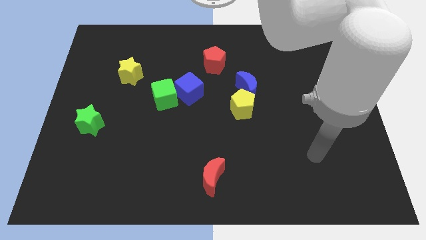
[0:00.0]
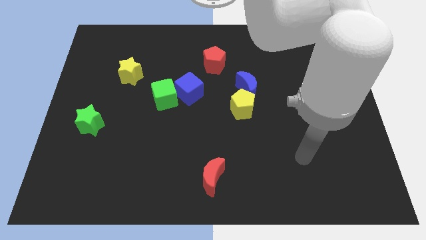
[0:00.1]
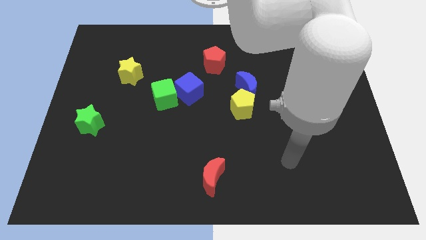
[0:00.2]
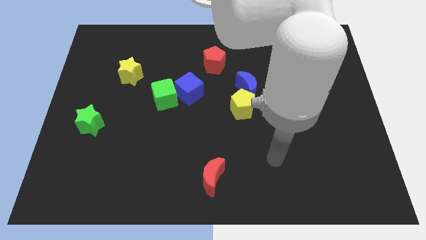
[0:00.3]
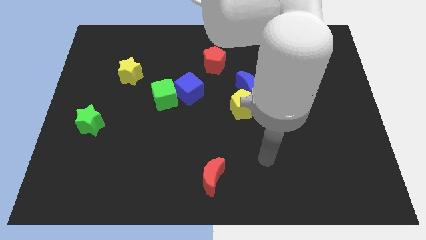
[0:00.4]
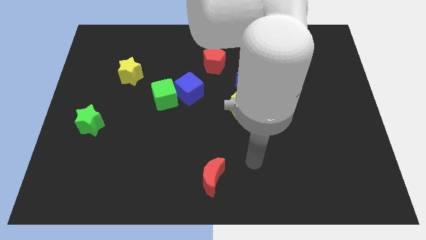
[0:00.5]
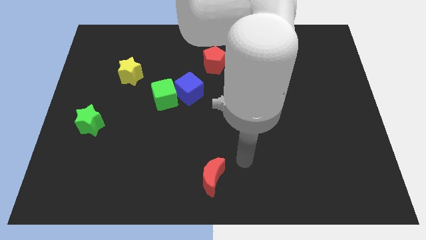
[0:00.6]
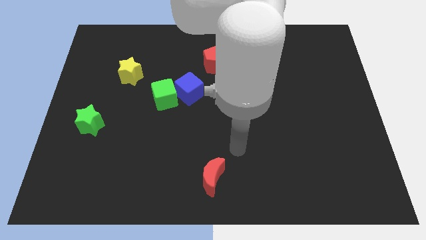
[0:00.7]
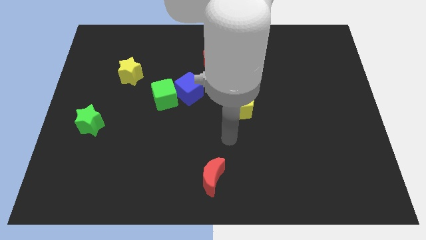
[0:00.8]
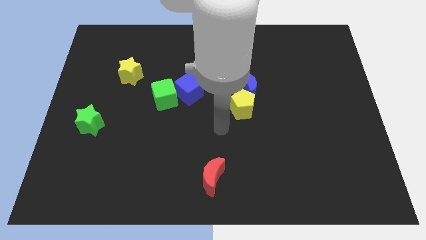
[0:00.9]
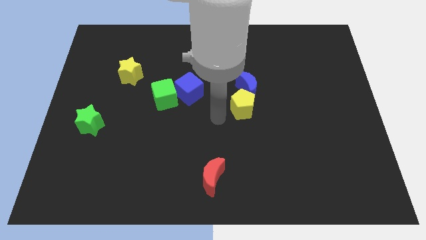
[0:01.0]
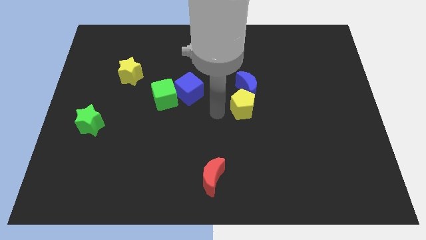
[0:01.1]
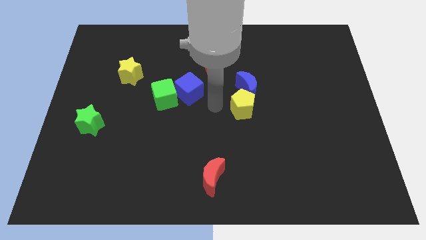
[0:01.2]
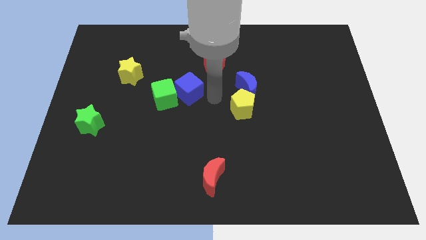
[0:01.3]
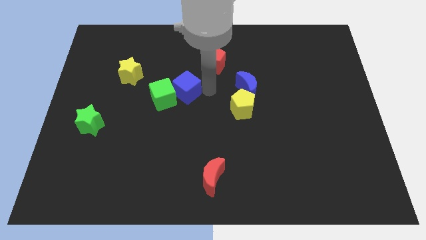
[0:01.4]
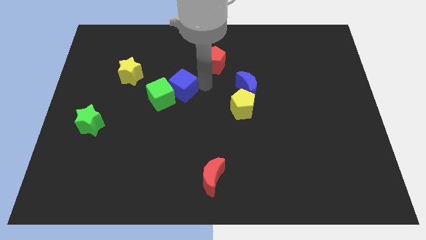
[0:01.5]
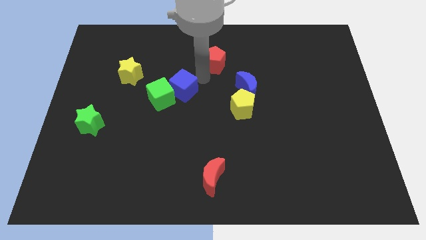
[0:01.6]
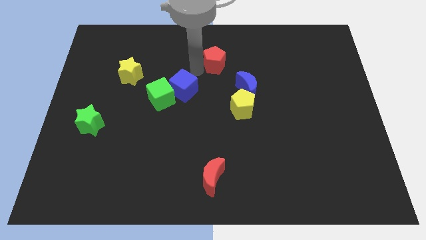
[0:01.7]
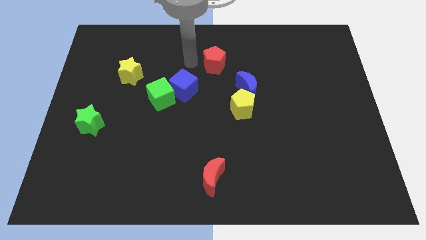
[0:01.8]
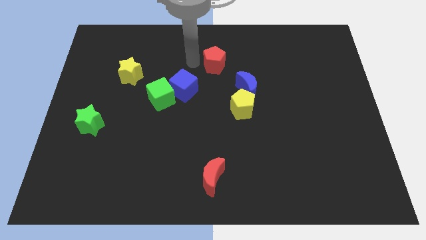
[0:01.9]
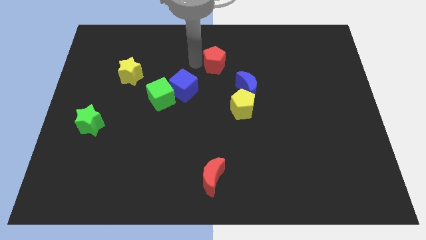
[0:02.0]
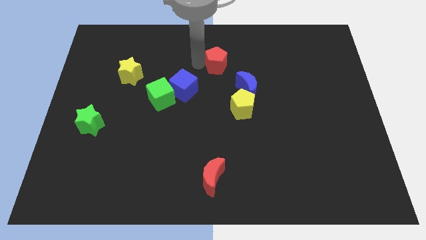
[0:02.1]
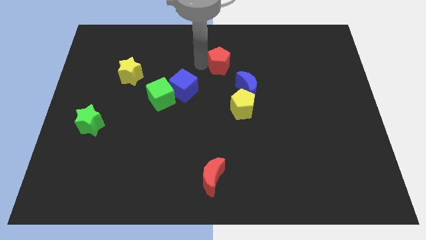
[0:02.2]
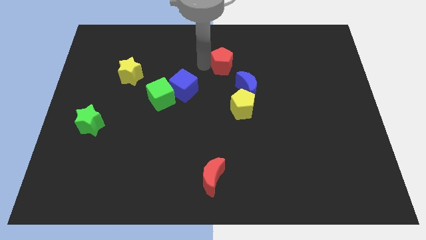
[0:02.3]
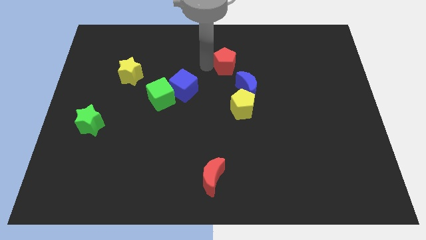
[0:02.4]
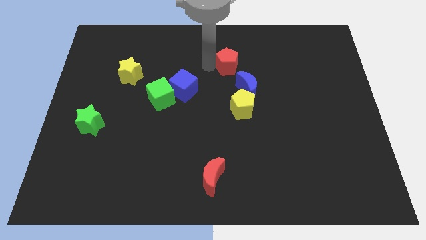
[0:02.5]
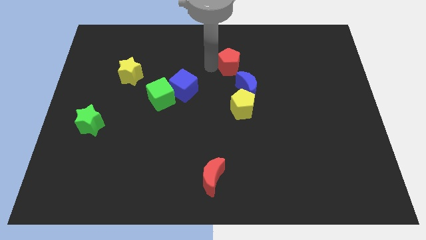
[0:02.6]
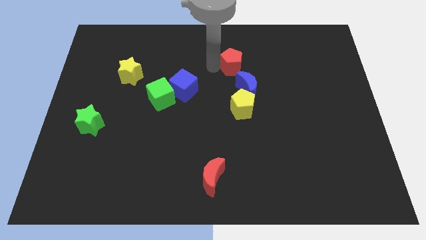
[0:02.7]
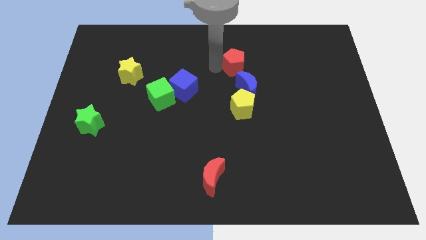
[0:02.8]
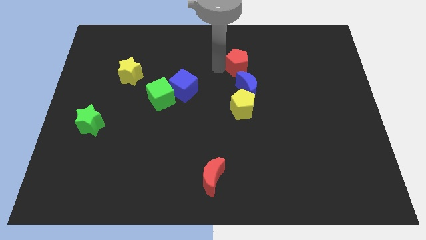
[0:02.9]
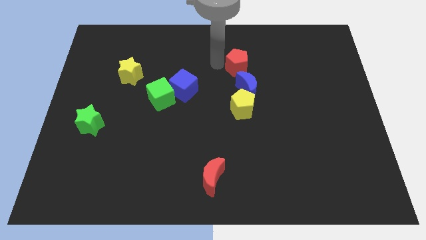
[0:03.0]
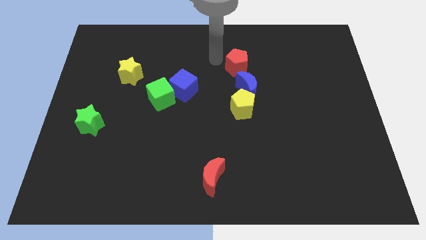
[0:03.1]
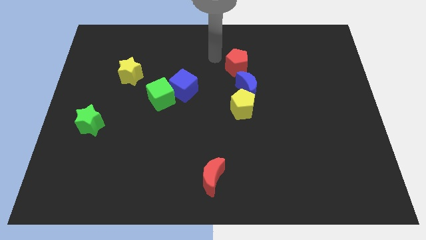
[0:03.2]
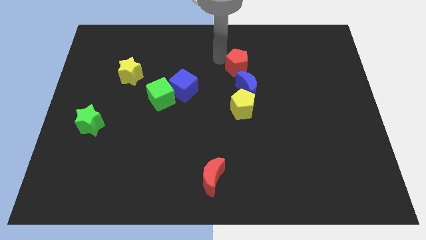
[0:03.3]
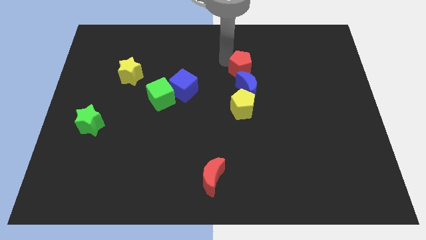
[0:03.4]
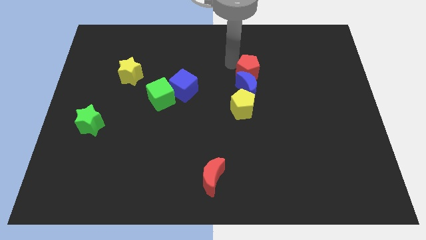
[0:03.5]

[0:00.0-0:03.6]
push the red pentagon slightly down and to the right

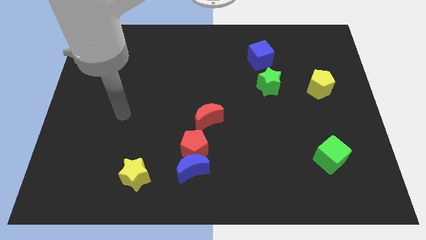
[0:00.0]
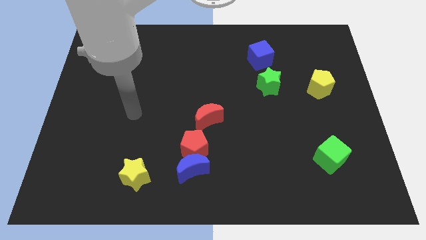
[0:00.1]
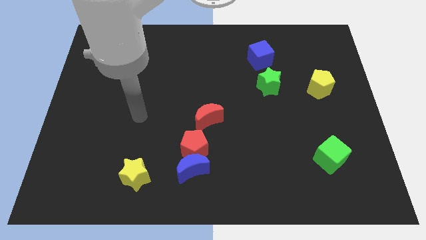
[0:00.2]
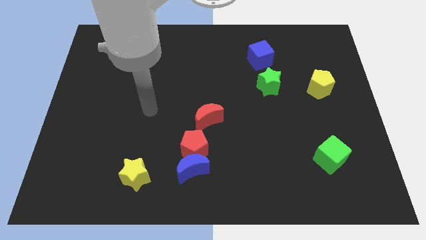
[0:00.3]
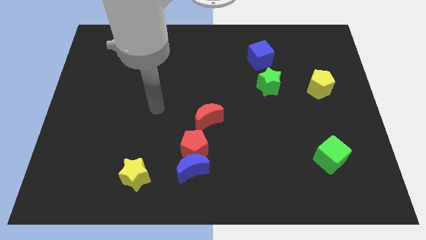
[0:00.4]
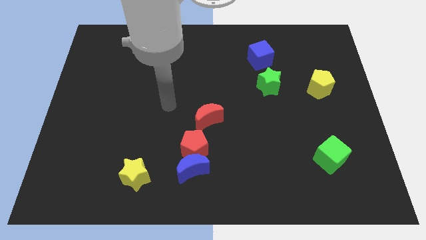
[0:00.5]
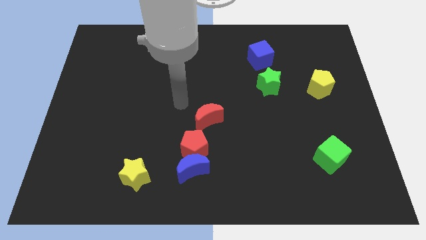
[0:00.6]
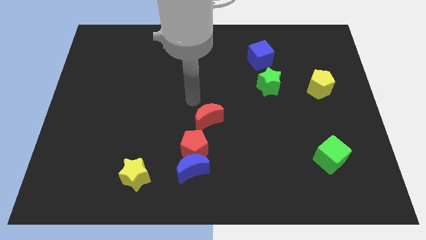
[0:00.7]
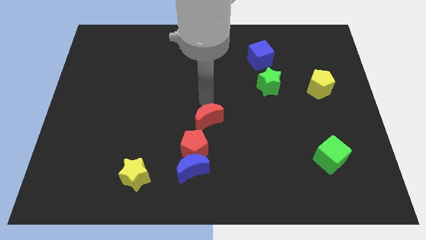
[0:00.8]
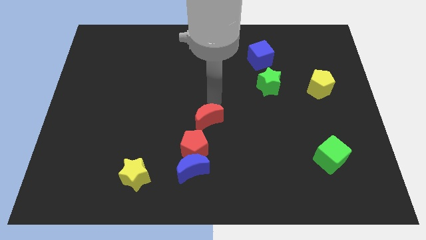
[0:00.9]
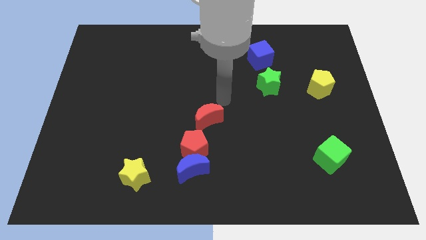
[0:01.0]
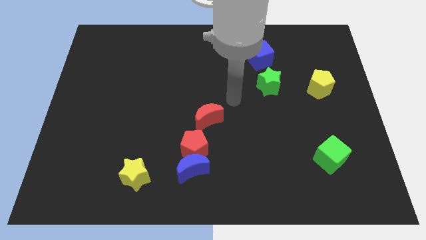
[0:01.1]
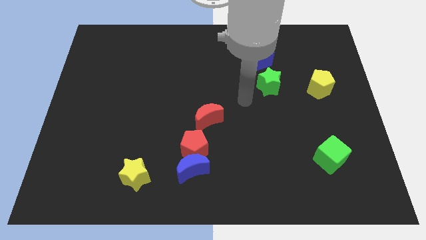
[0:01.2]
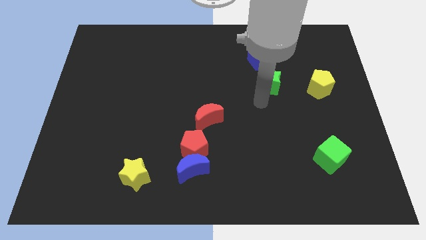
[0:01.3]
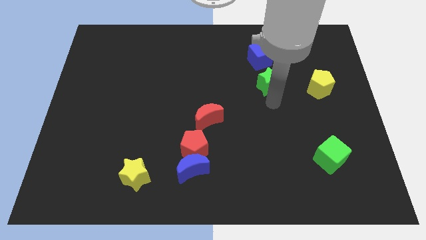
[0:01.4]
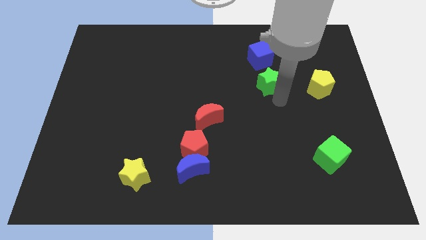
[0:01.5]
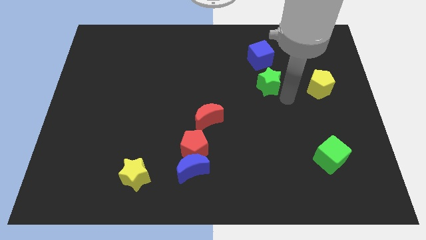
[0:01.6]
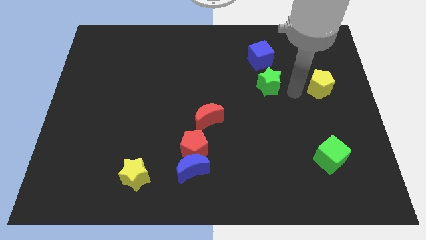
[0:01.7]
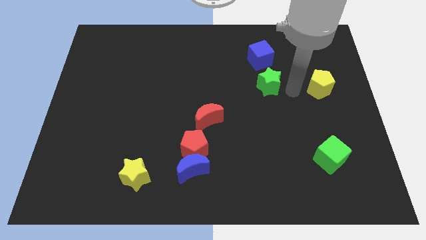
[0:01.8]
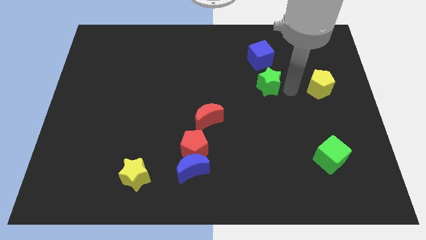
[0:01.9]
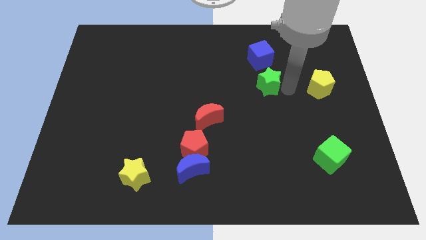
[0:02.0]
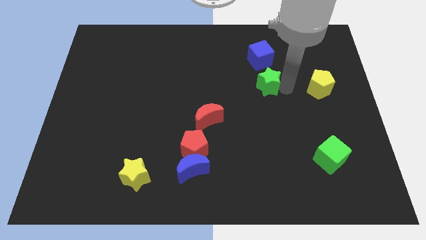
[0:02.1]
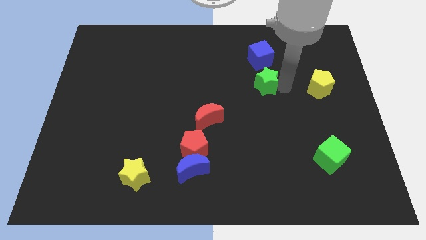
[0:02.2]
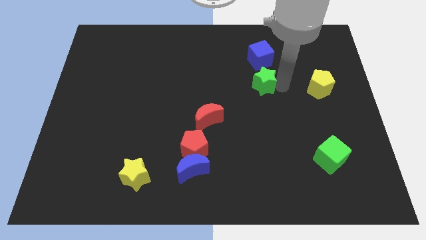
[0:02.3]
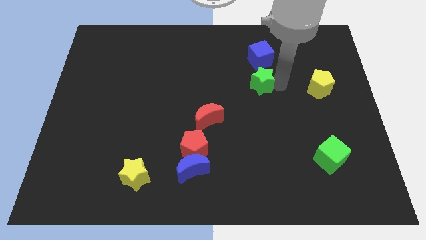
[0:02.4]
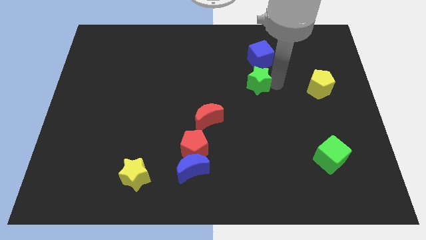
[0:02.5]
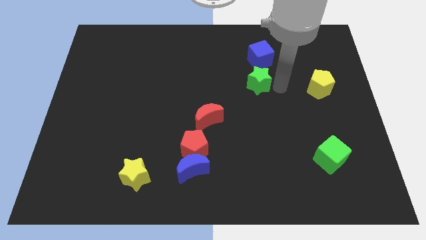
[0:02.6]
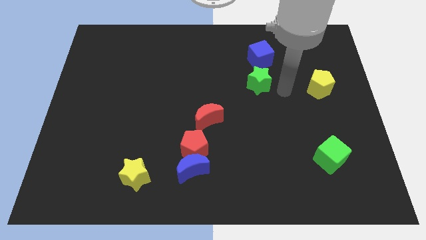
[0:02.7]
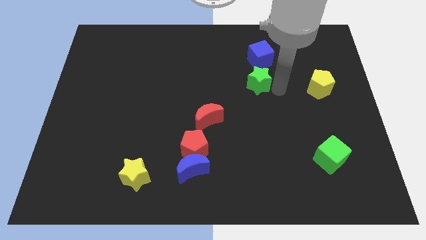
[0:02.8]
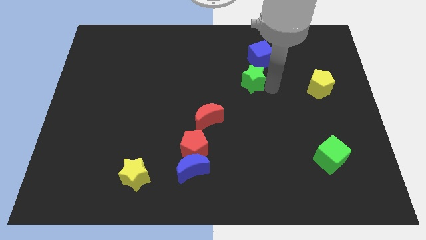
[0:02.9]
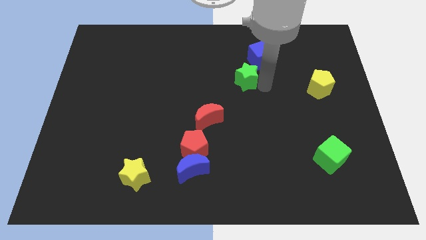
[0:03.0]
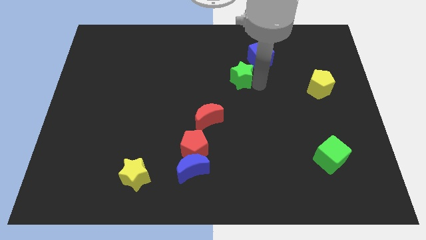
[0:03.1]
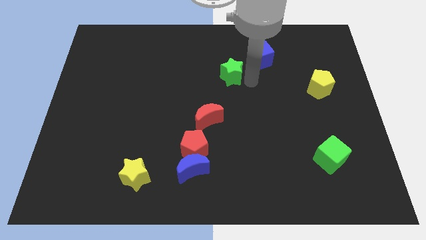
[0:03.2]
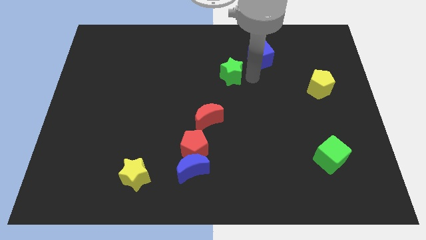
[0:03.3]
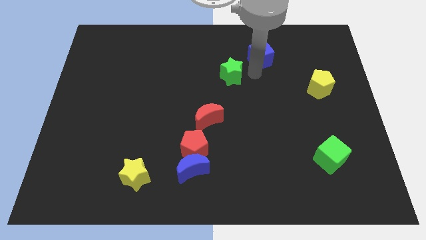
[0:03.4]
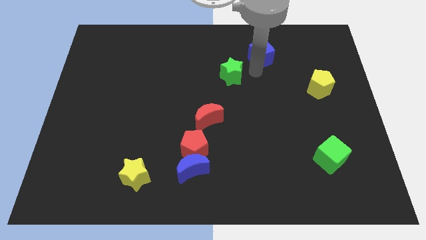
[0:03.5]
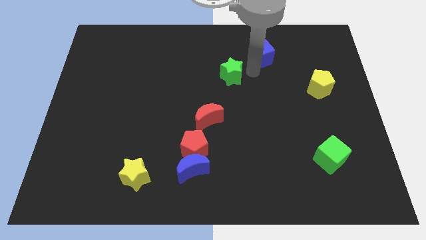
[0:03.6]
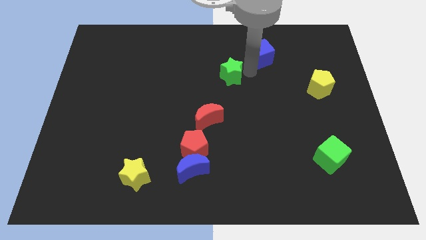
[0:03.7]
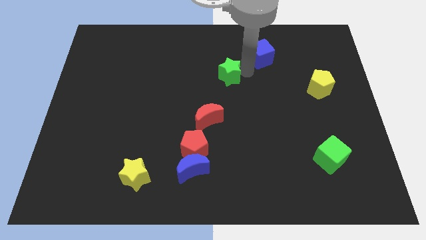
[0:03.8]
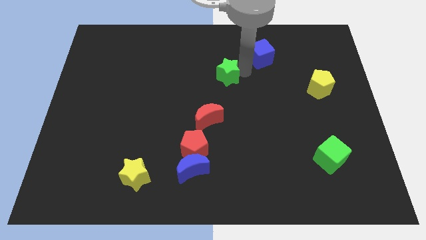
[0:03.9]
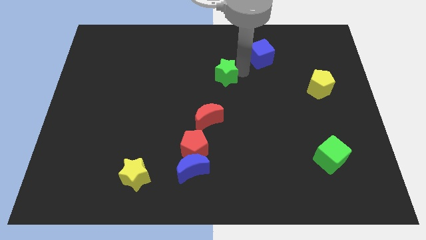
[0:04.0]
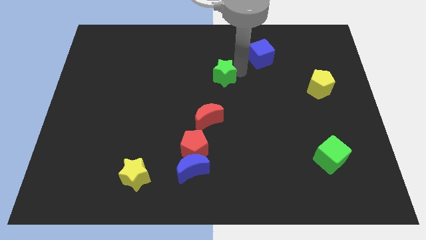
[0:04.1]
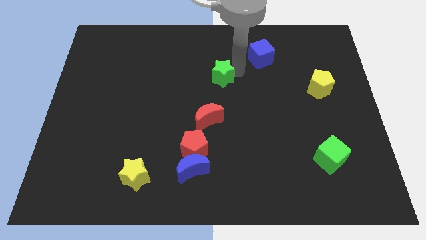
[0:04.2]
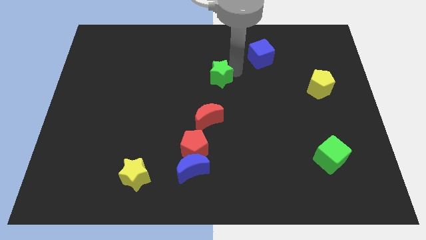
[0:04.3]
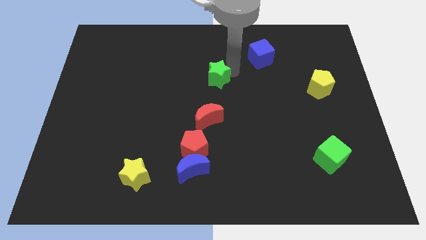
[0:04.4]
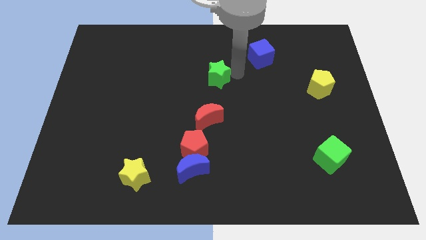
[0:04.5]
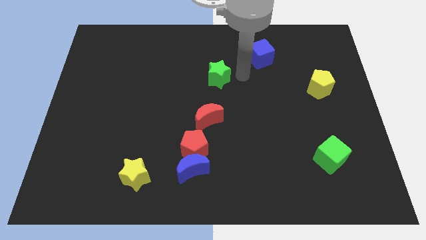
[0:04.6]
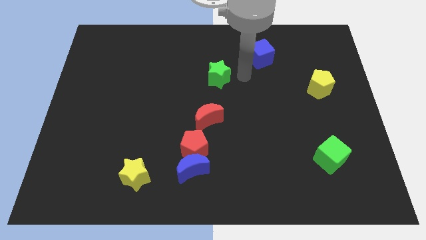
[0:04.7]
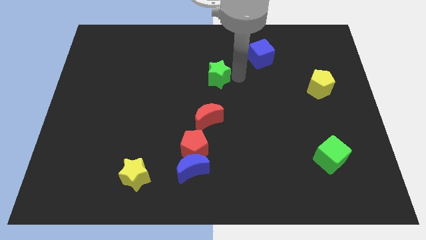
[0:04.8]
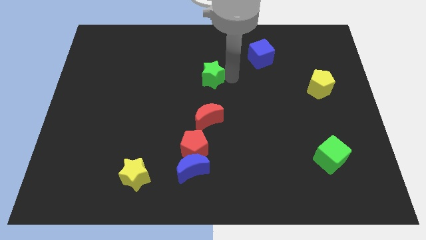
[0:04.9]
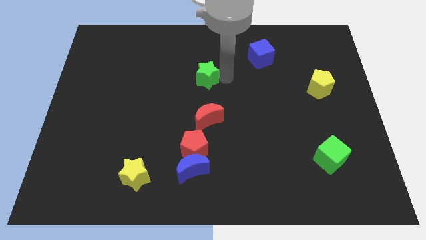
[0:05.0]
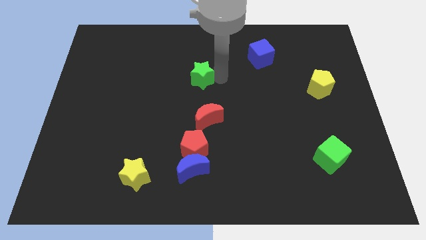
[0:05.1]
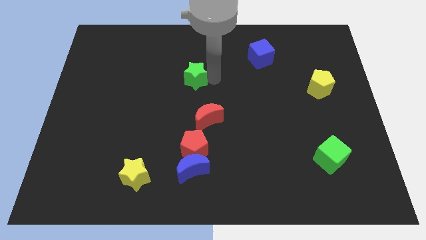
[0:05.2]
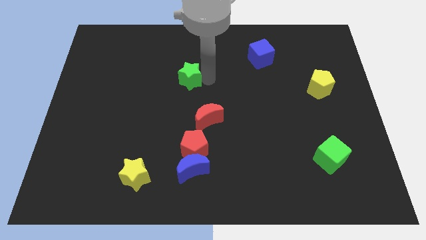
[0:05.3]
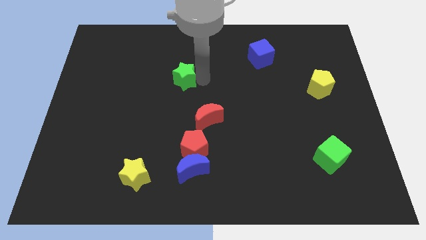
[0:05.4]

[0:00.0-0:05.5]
slide the green star to the left
